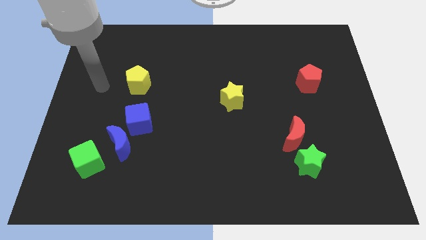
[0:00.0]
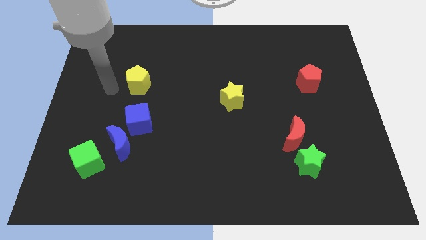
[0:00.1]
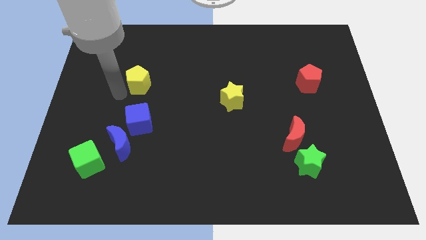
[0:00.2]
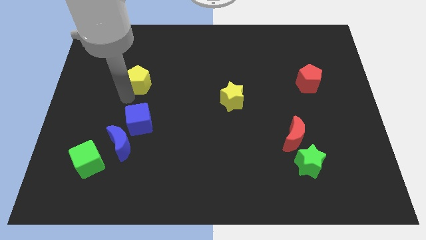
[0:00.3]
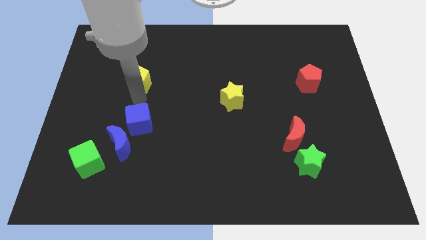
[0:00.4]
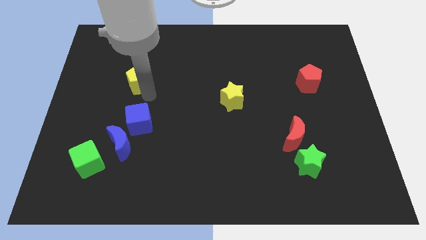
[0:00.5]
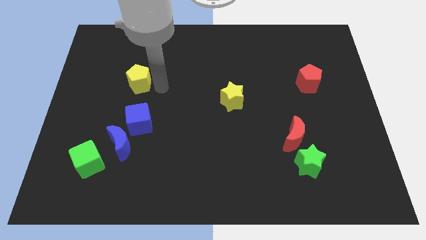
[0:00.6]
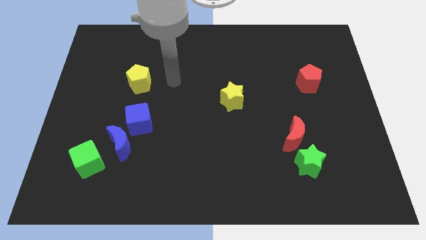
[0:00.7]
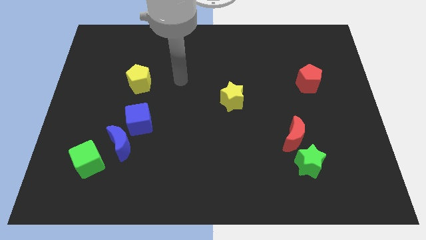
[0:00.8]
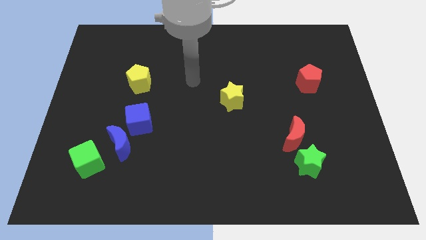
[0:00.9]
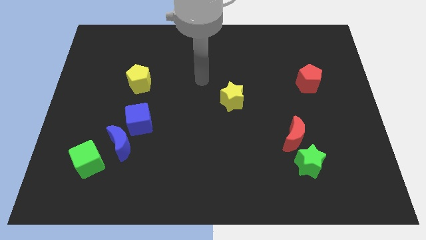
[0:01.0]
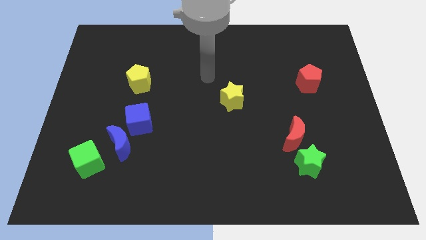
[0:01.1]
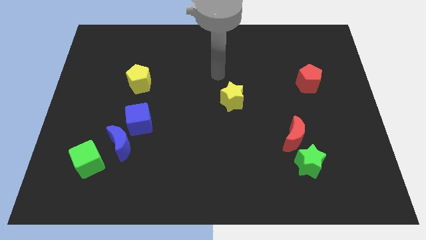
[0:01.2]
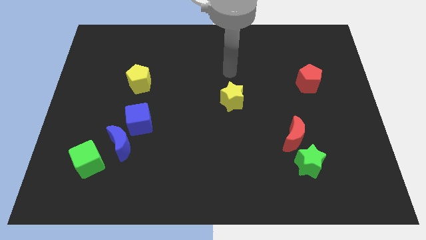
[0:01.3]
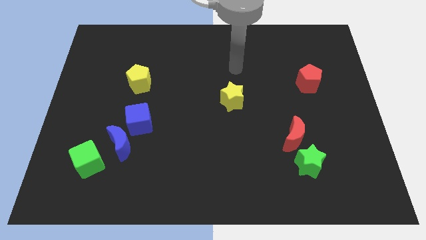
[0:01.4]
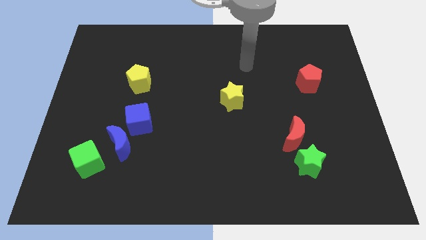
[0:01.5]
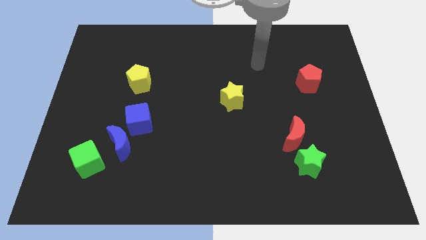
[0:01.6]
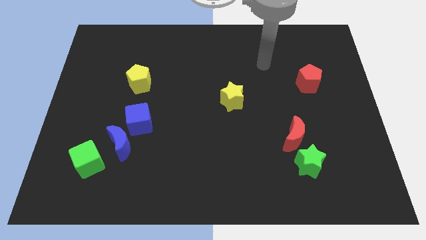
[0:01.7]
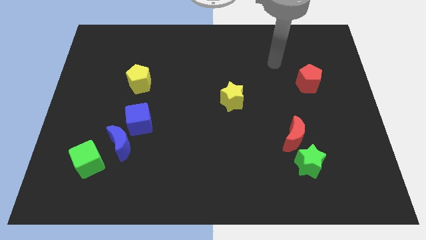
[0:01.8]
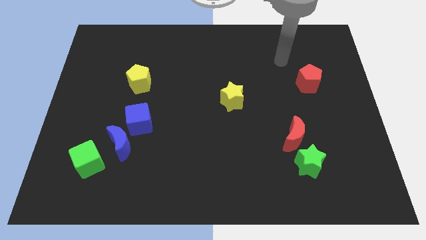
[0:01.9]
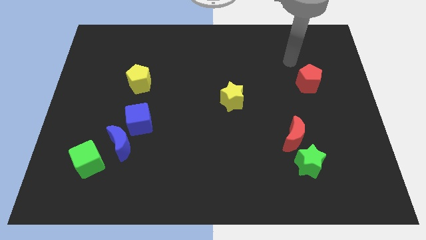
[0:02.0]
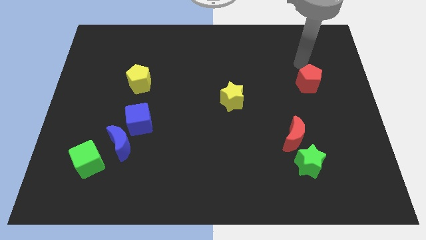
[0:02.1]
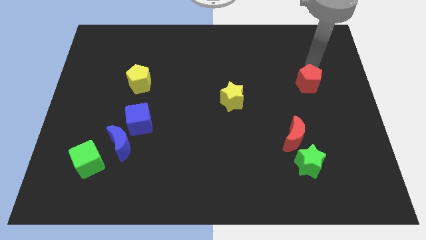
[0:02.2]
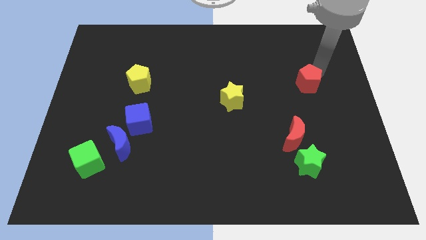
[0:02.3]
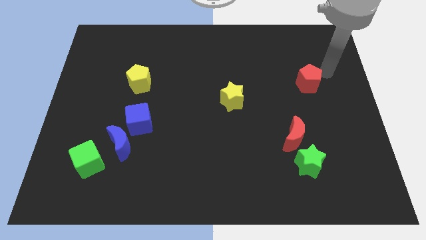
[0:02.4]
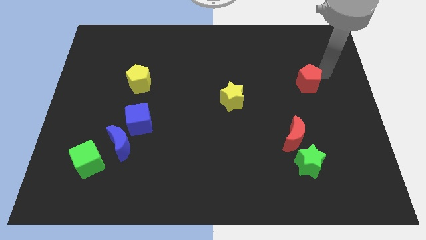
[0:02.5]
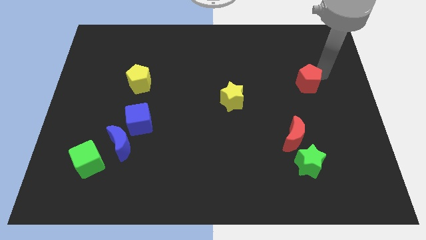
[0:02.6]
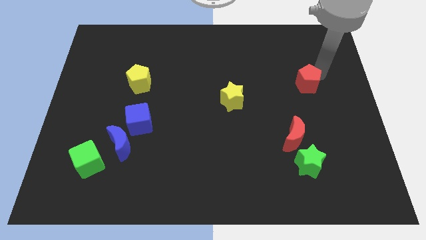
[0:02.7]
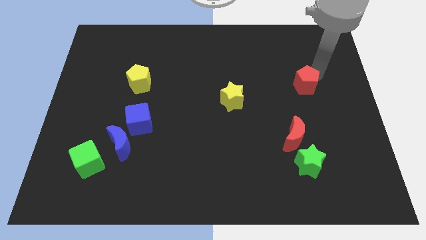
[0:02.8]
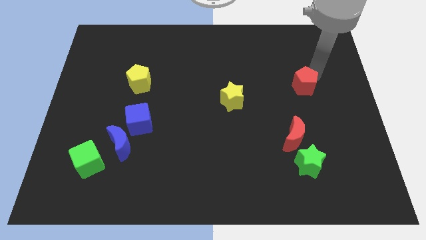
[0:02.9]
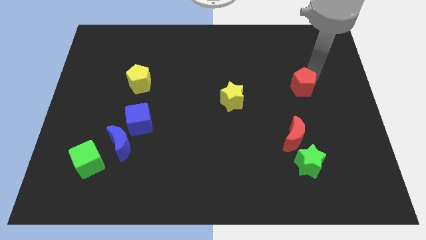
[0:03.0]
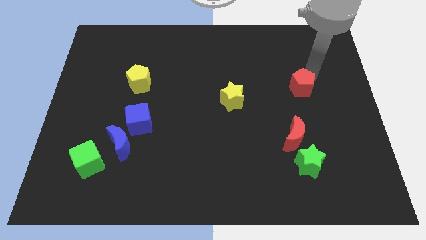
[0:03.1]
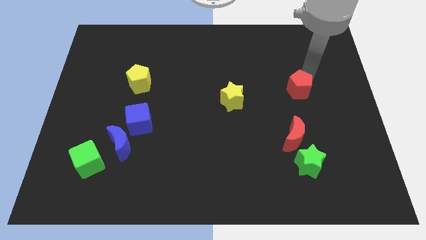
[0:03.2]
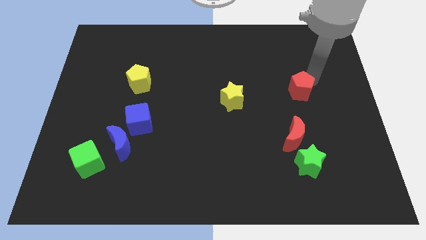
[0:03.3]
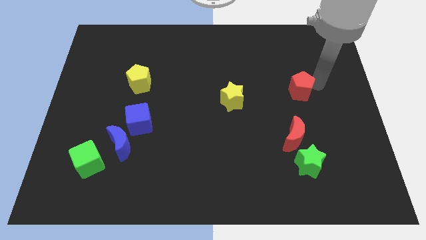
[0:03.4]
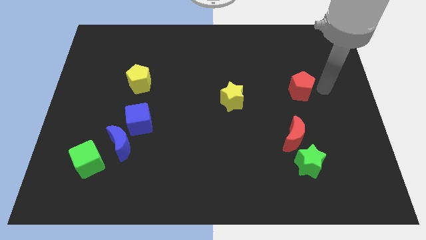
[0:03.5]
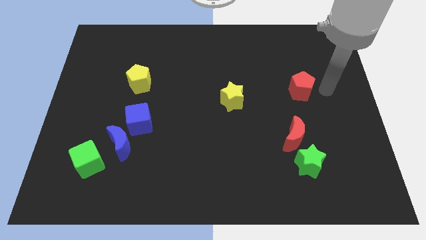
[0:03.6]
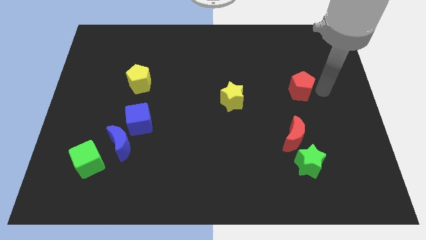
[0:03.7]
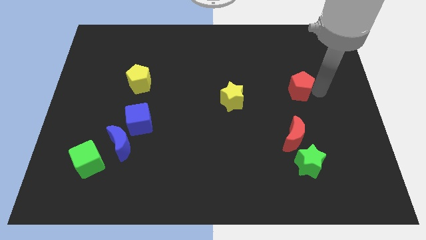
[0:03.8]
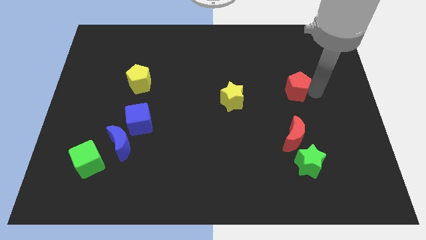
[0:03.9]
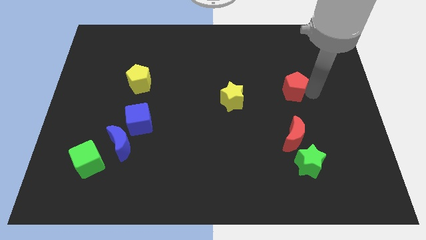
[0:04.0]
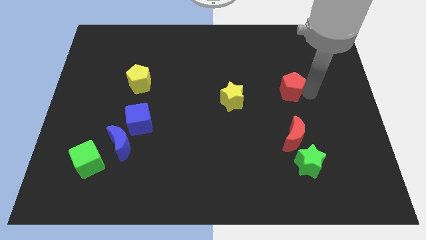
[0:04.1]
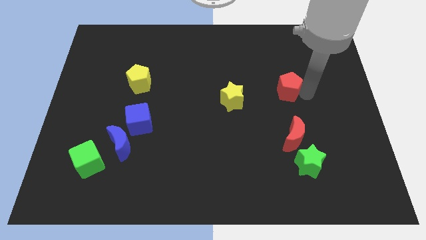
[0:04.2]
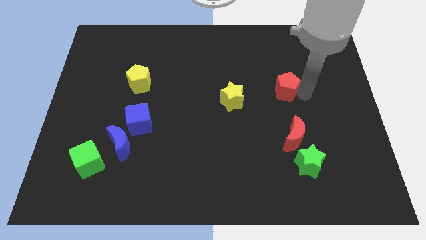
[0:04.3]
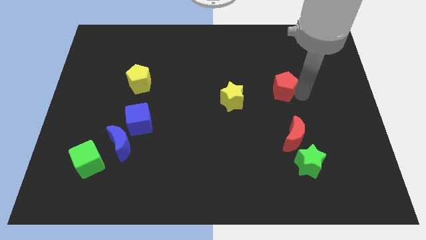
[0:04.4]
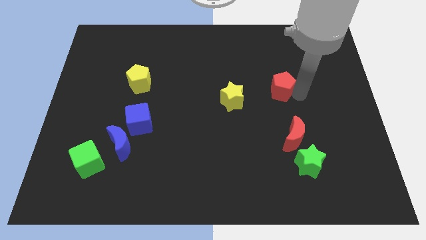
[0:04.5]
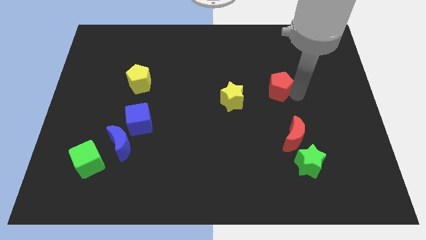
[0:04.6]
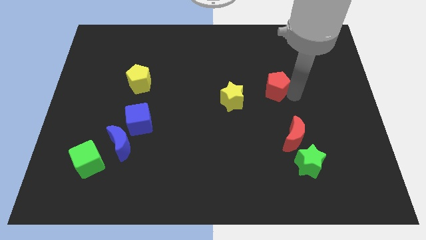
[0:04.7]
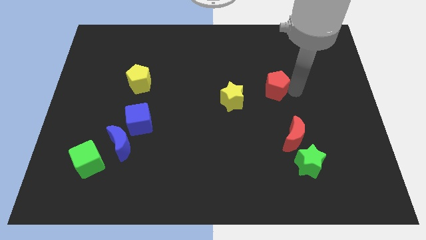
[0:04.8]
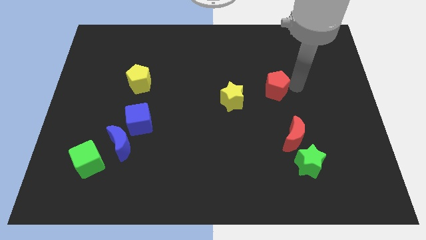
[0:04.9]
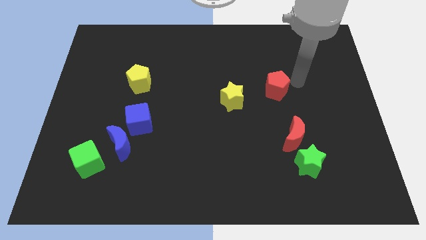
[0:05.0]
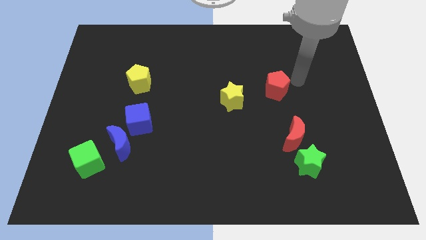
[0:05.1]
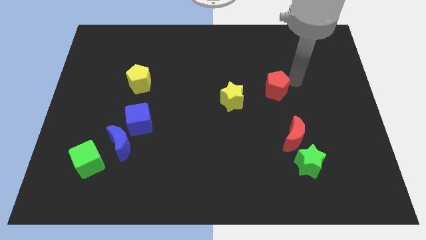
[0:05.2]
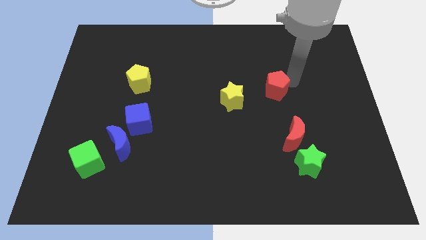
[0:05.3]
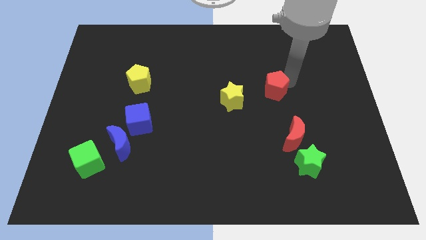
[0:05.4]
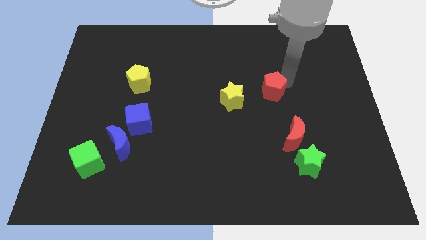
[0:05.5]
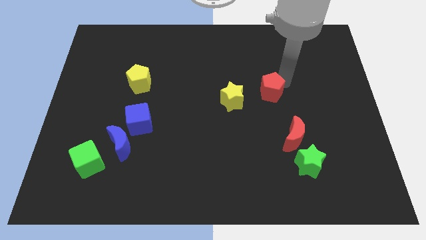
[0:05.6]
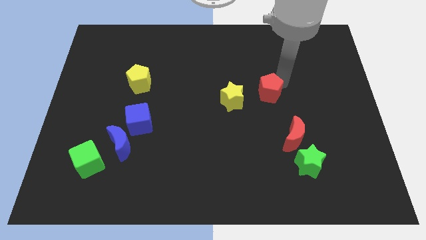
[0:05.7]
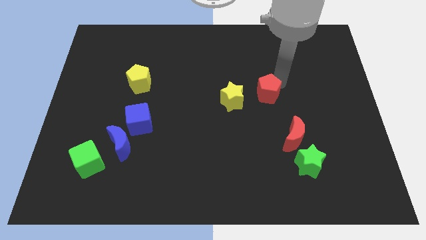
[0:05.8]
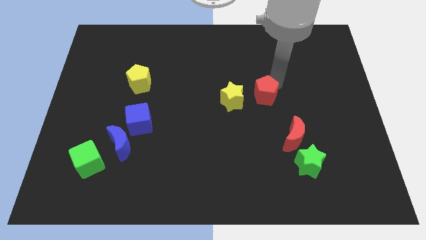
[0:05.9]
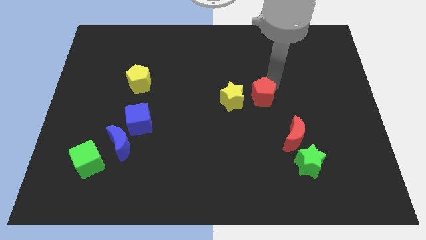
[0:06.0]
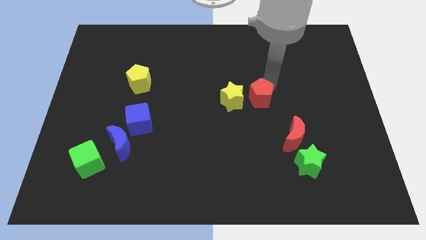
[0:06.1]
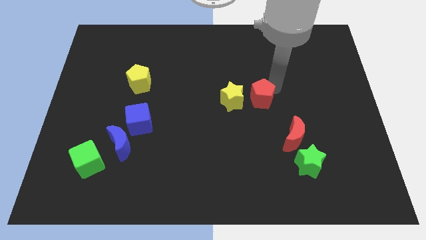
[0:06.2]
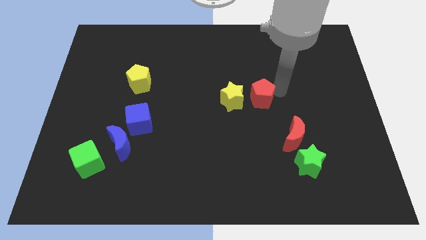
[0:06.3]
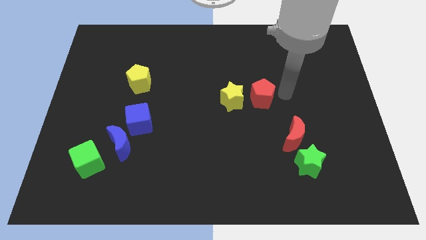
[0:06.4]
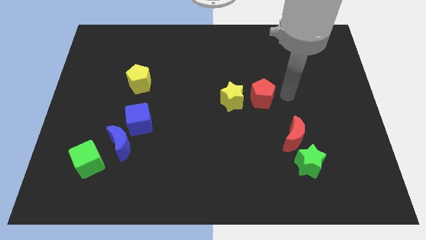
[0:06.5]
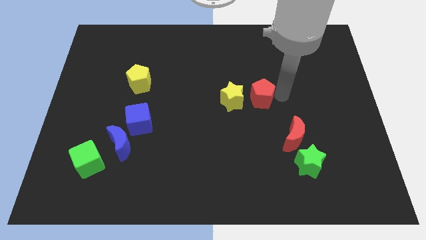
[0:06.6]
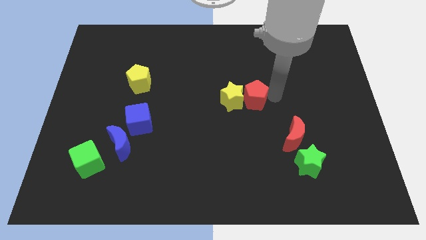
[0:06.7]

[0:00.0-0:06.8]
push the red pentagon next to the yellow star

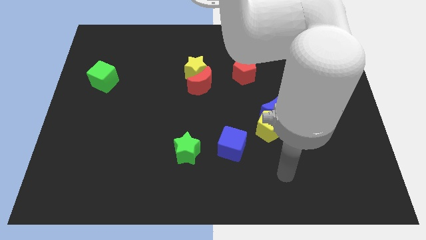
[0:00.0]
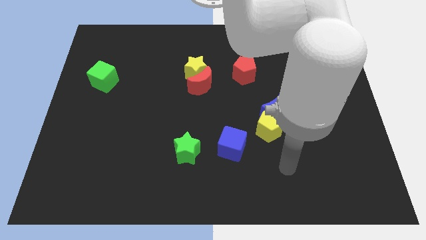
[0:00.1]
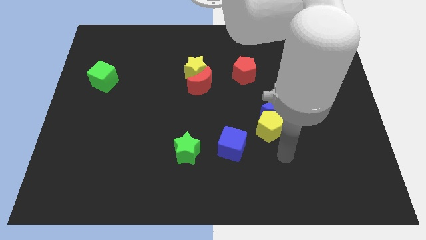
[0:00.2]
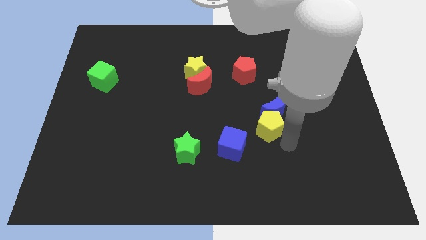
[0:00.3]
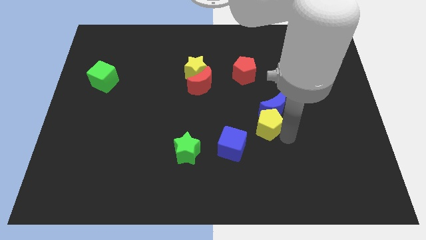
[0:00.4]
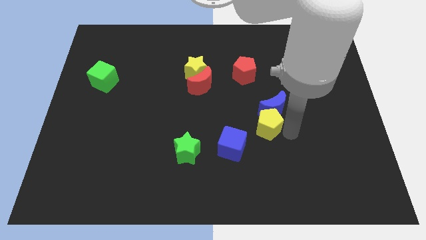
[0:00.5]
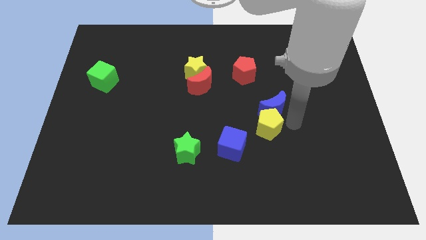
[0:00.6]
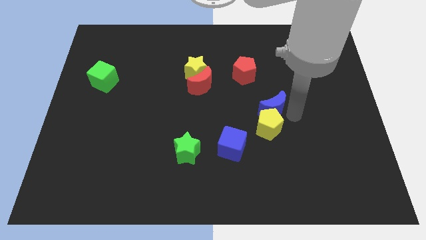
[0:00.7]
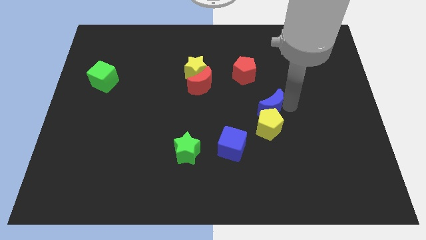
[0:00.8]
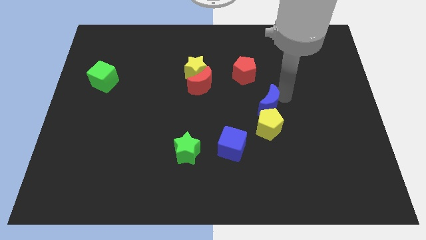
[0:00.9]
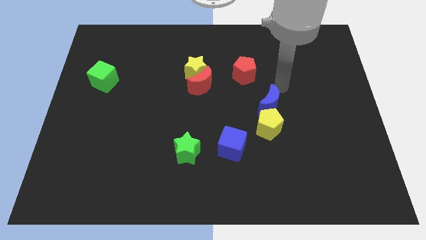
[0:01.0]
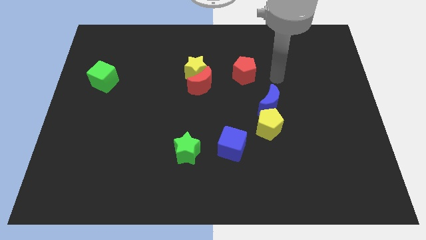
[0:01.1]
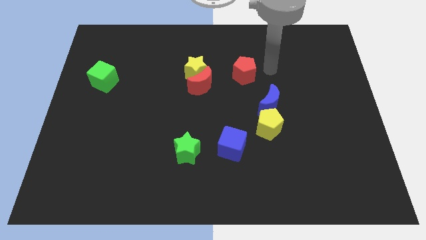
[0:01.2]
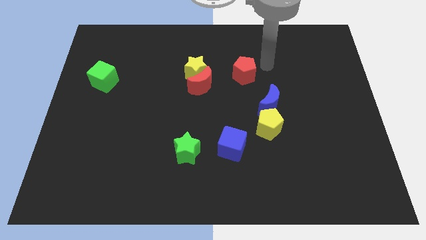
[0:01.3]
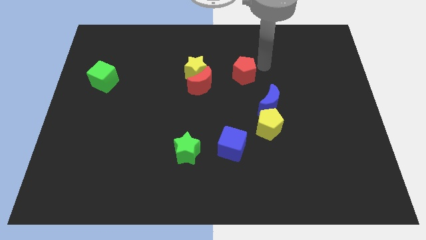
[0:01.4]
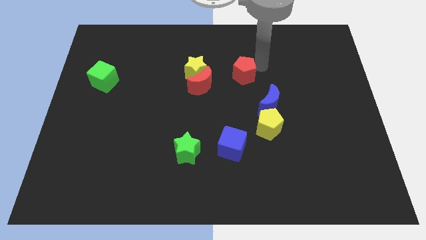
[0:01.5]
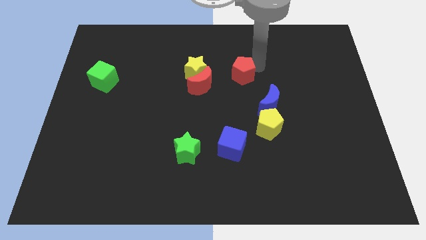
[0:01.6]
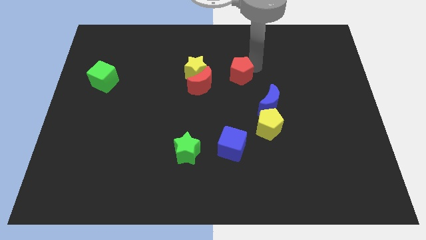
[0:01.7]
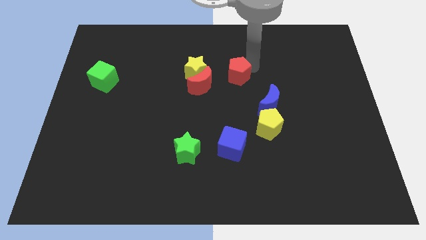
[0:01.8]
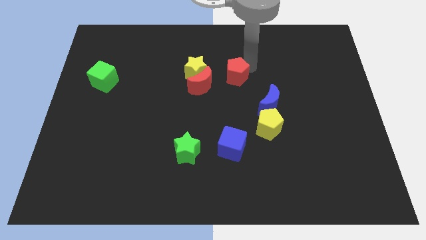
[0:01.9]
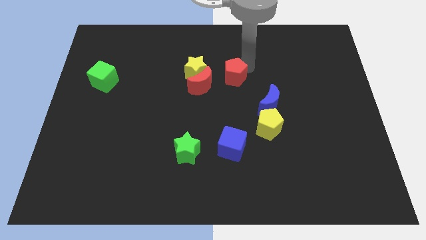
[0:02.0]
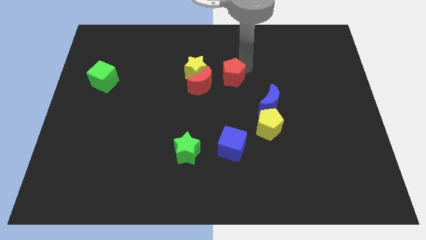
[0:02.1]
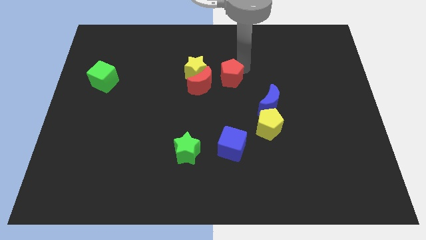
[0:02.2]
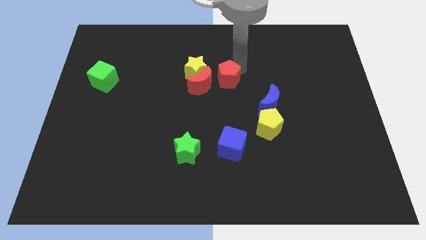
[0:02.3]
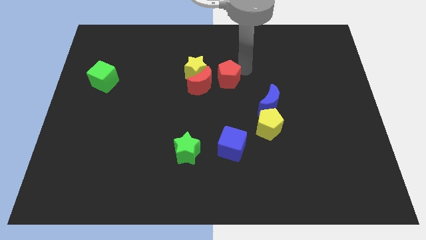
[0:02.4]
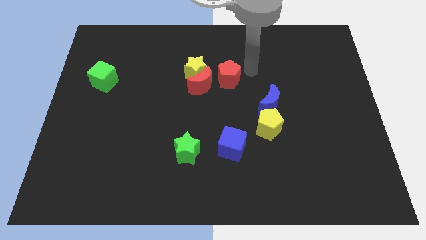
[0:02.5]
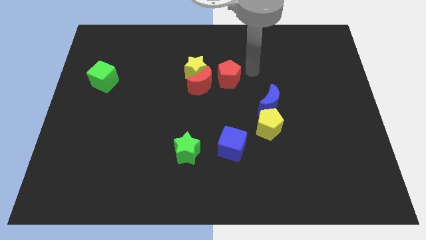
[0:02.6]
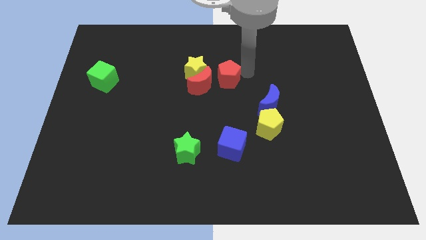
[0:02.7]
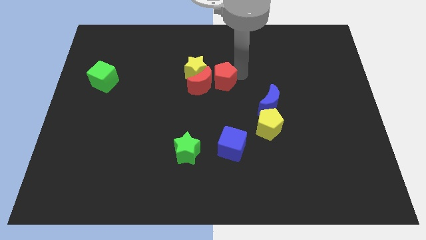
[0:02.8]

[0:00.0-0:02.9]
push the red pentagon towards the red moon
